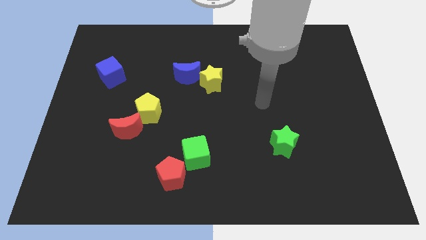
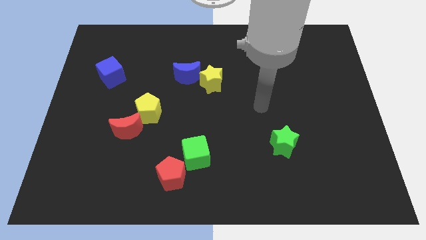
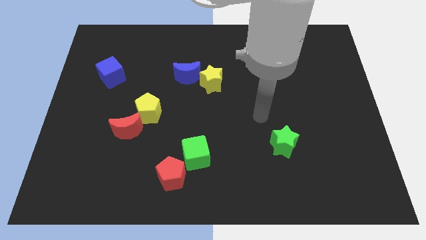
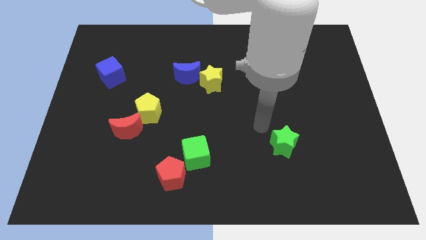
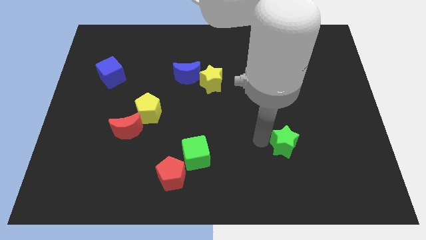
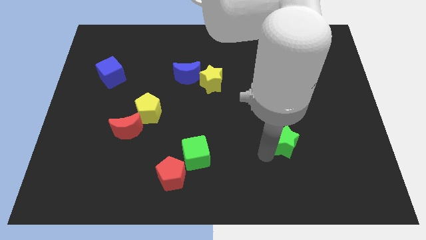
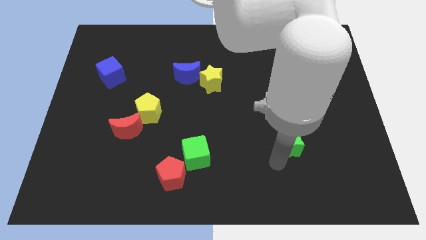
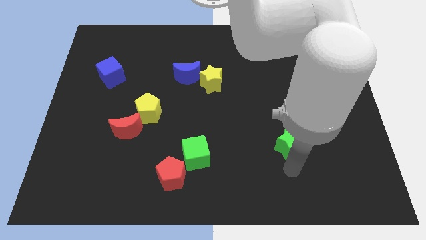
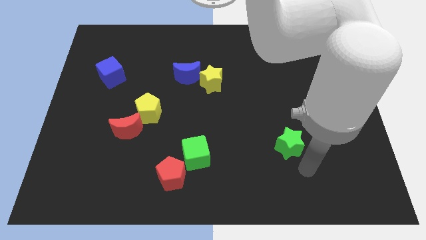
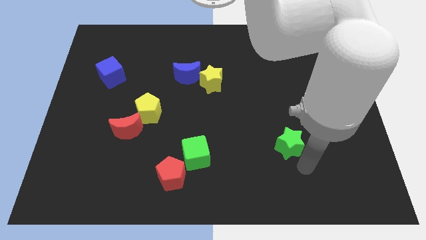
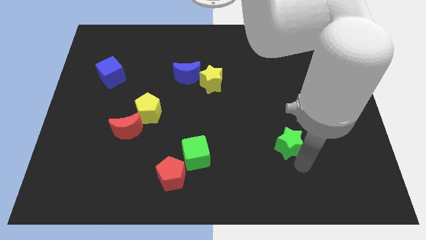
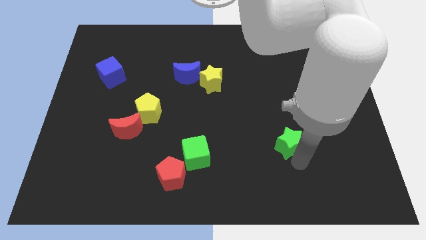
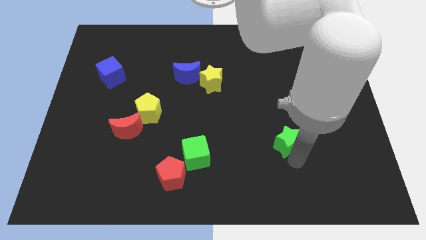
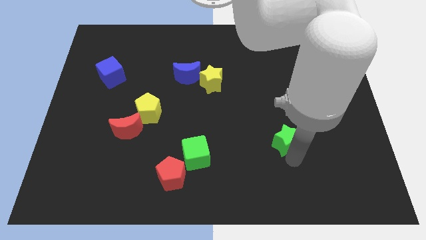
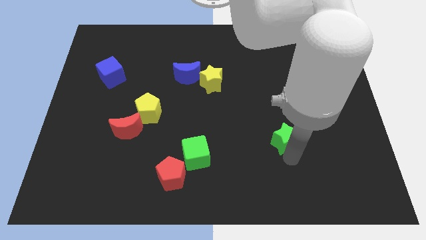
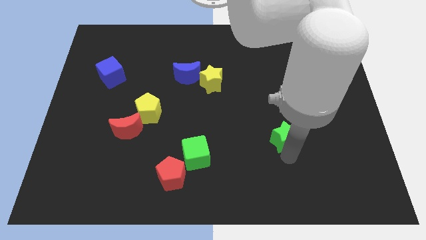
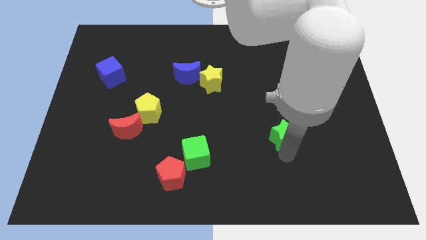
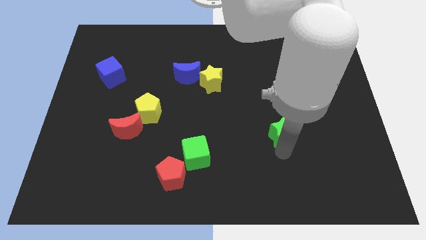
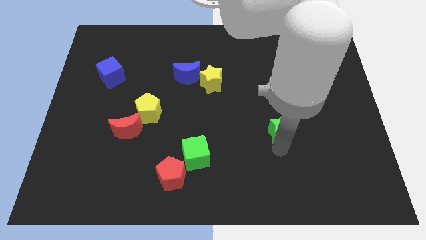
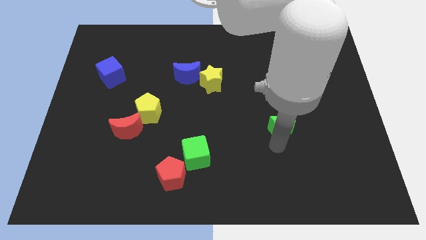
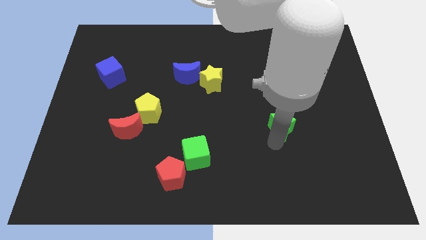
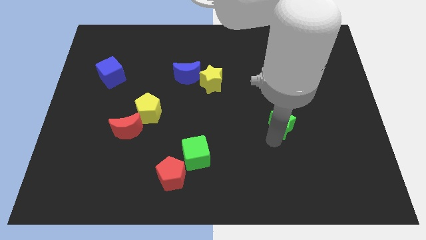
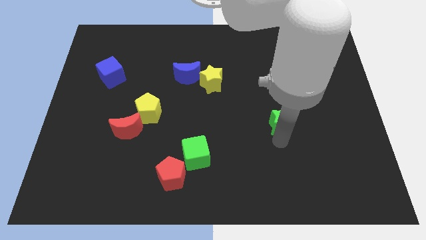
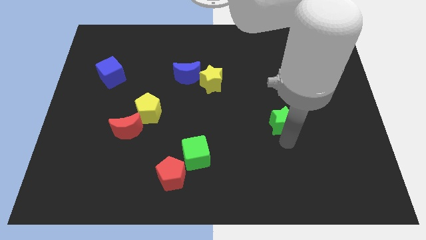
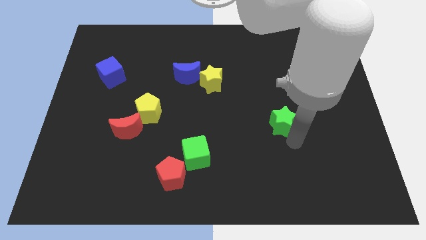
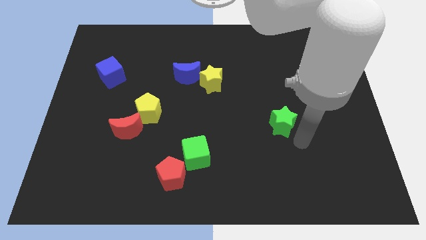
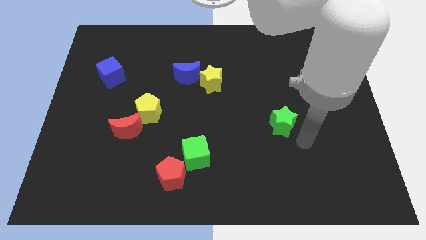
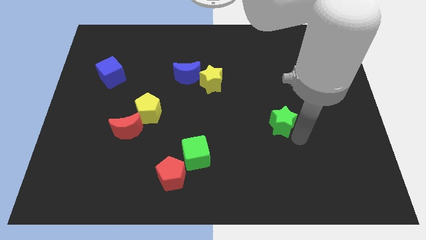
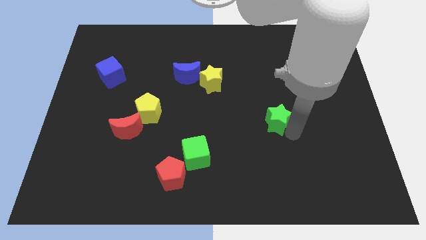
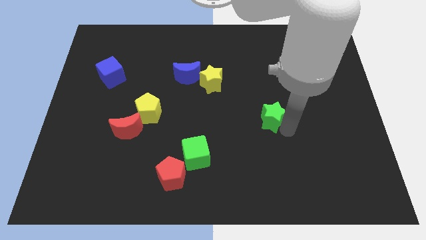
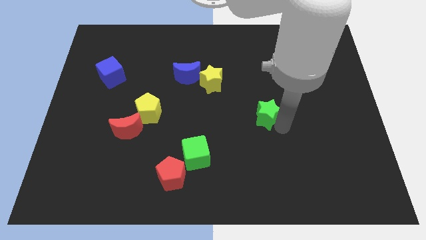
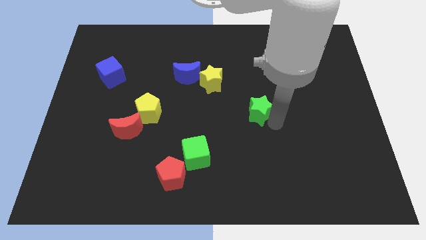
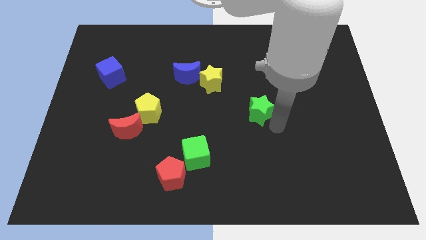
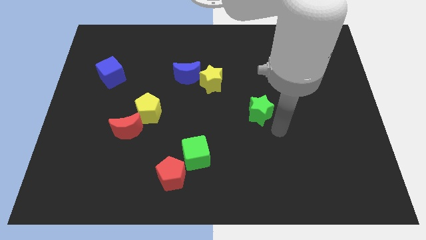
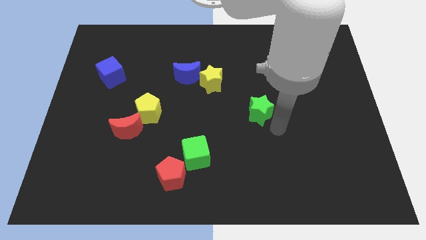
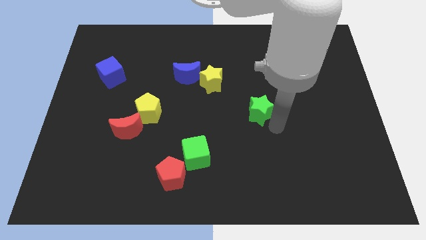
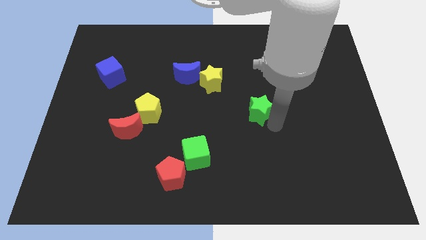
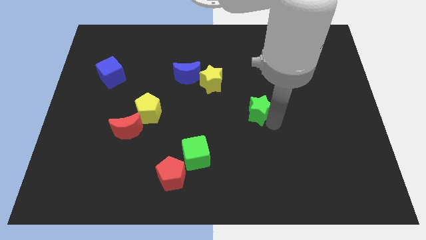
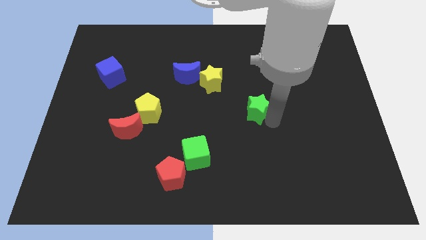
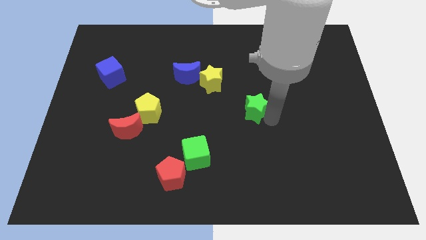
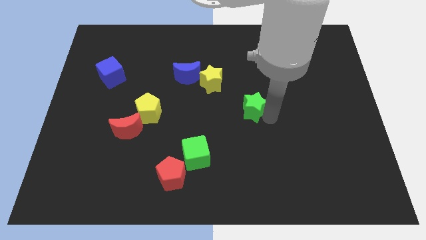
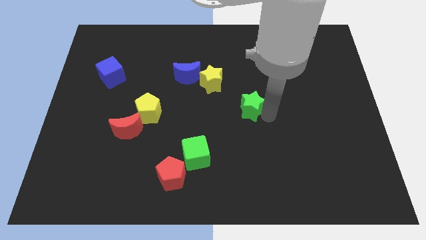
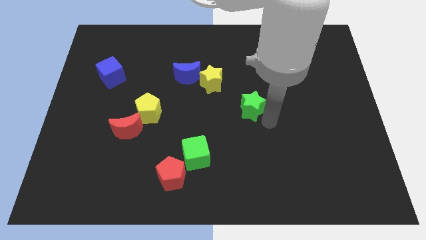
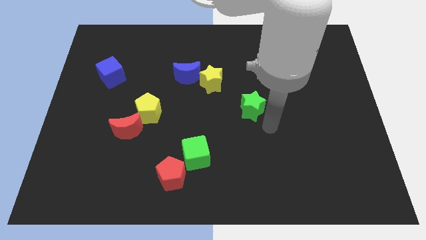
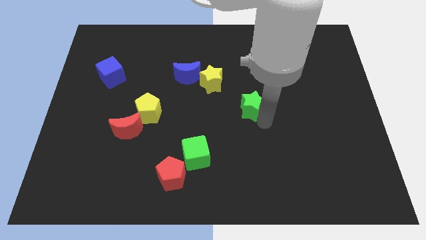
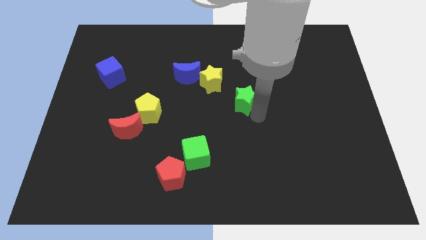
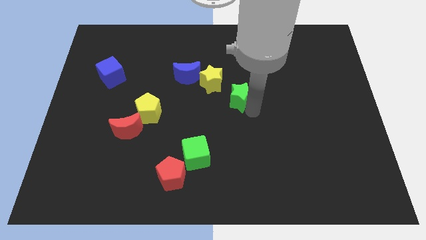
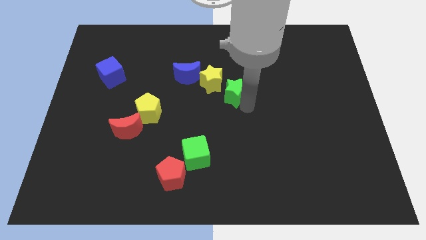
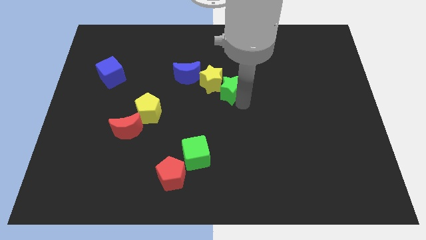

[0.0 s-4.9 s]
put the green star to the yellow star

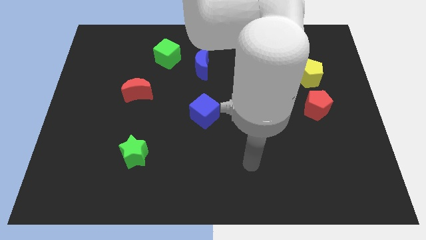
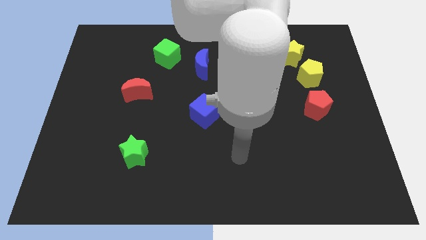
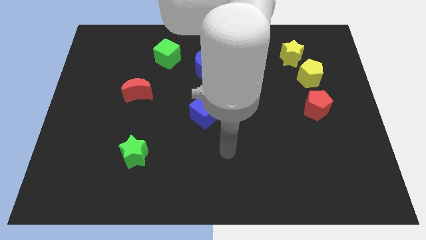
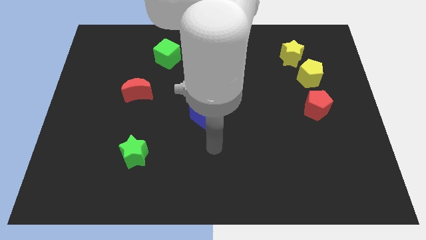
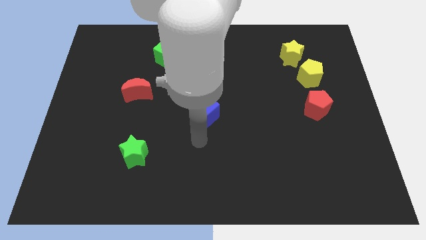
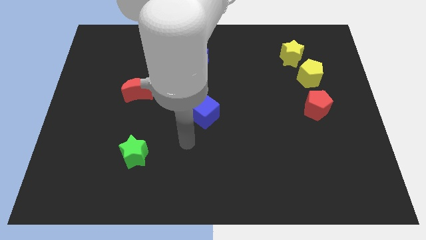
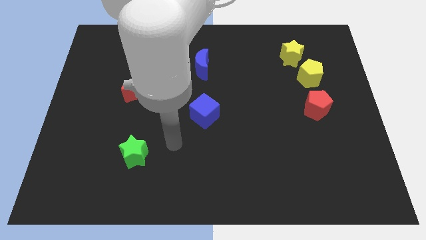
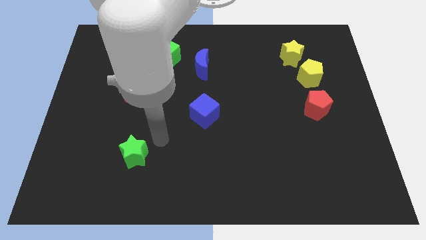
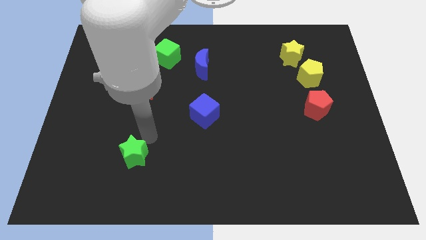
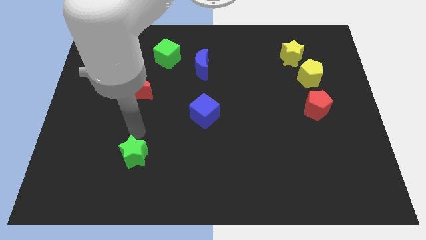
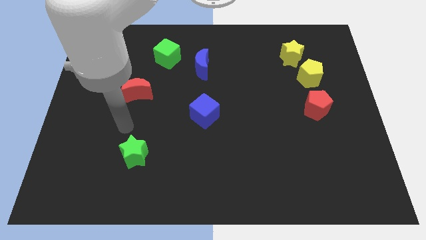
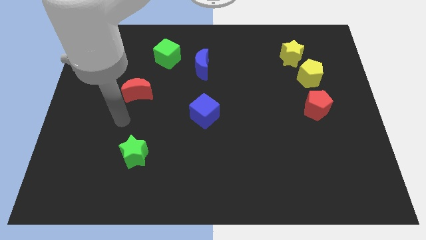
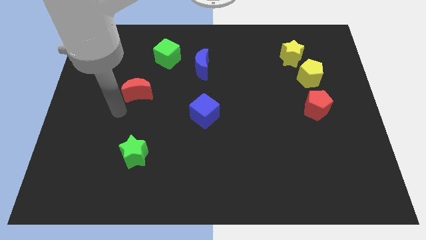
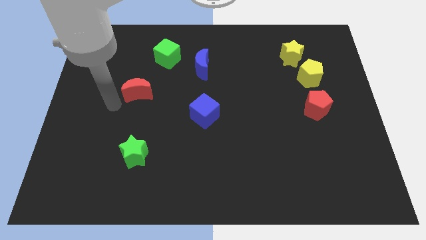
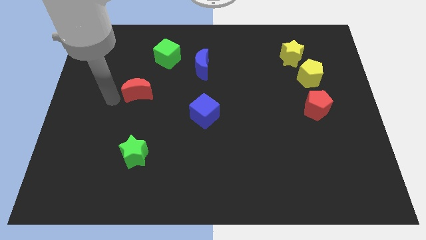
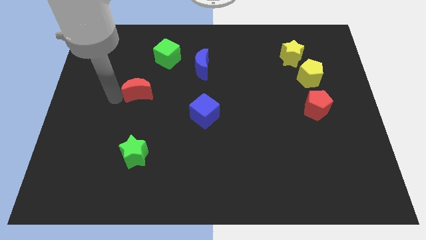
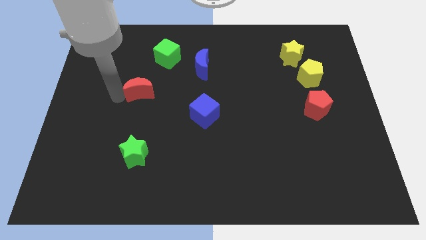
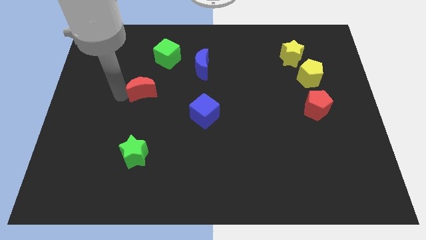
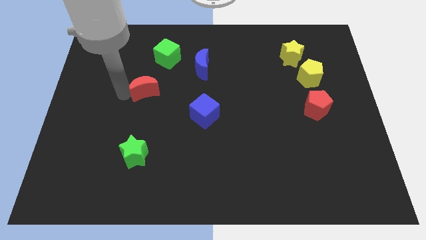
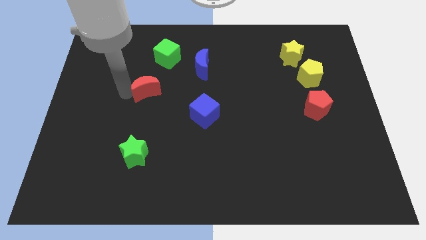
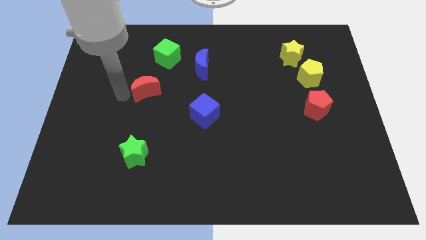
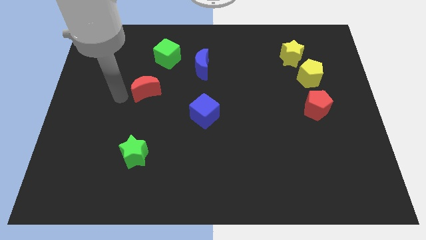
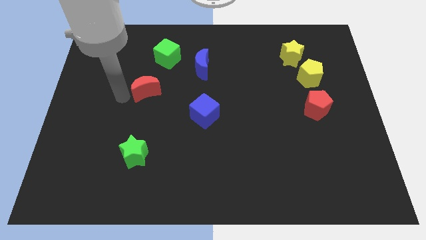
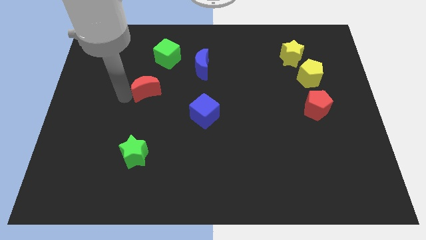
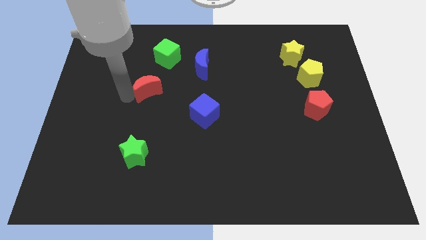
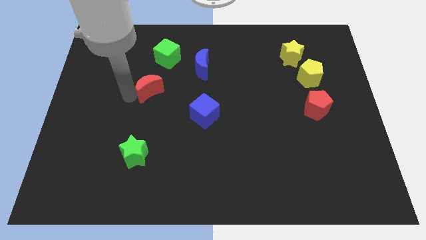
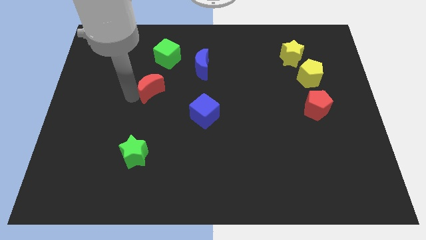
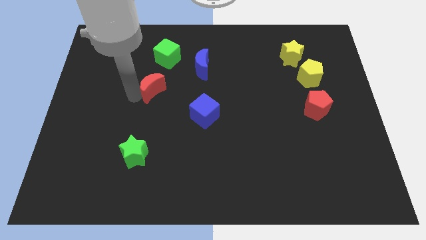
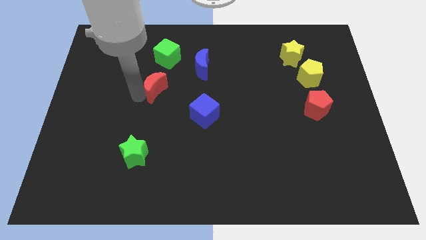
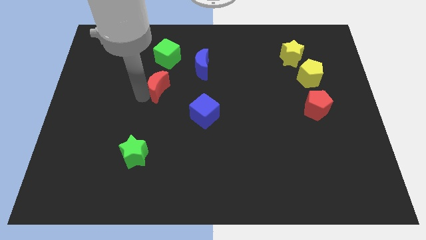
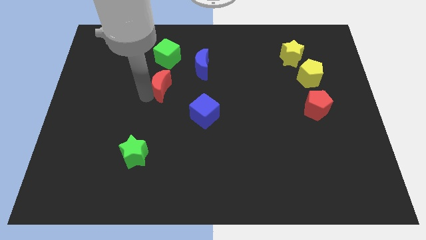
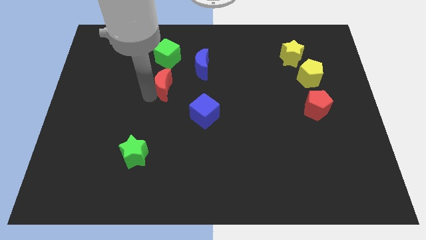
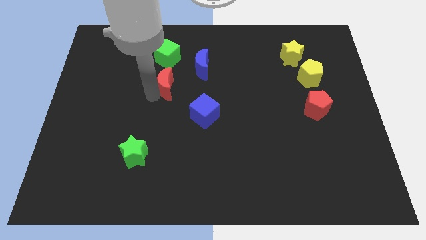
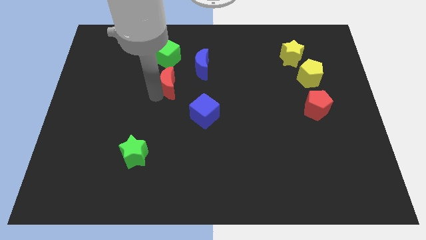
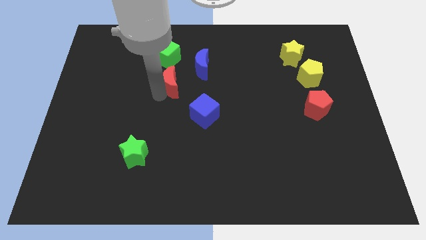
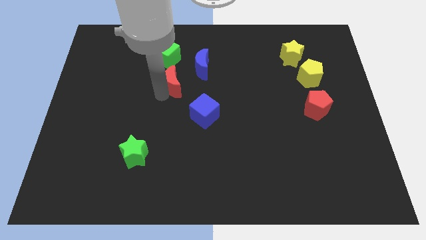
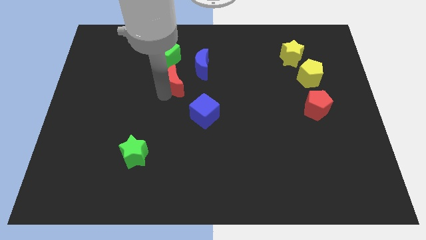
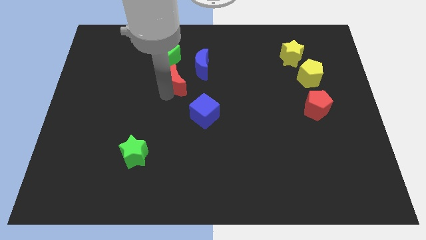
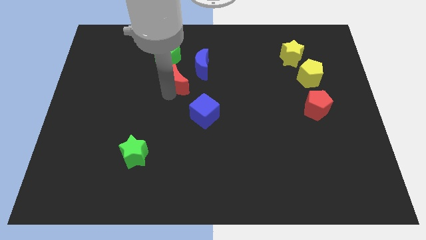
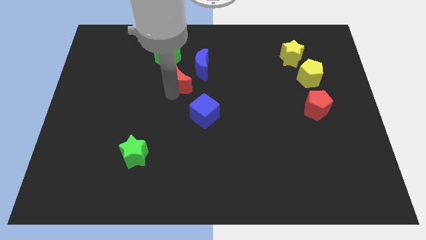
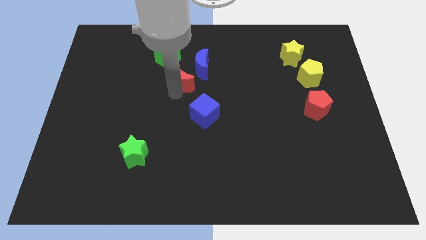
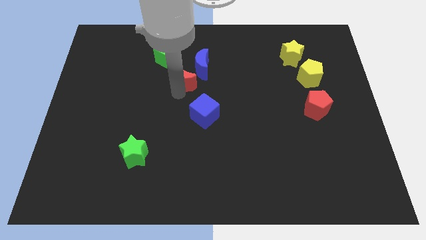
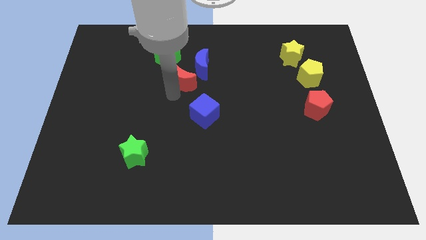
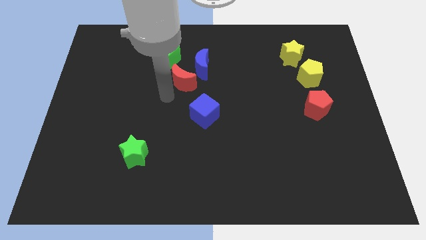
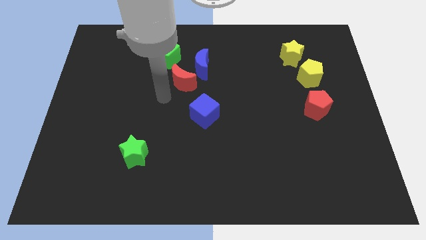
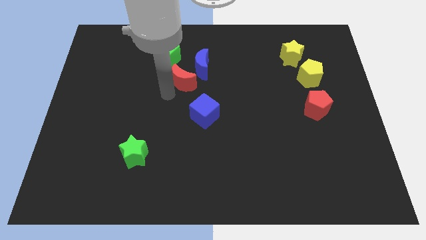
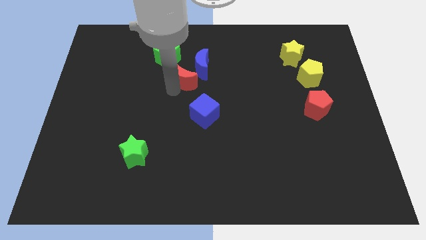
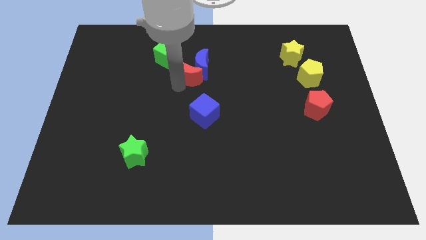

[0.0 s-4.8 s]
push the red moon to the blue moon
